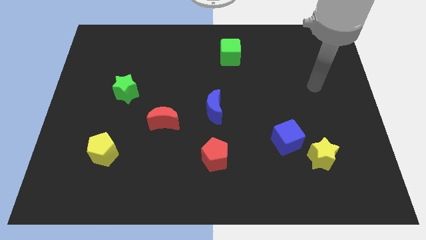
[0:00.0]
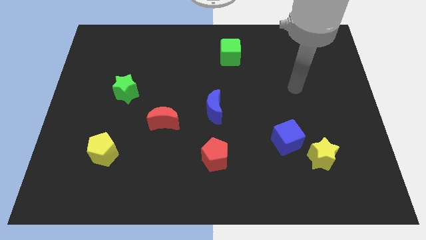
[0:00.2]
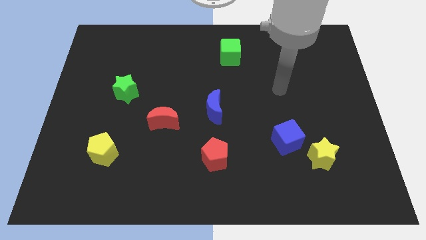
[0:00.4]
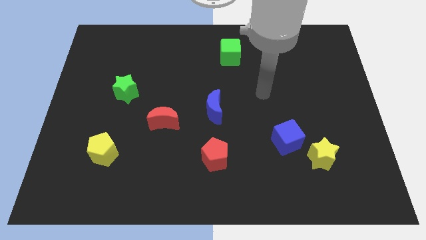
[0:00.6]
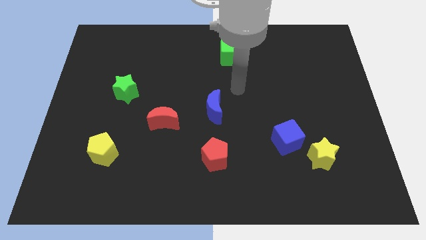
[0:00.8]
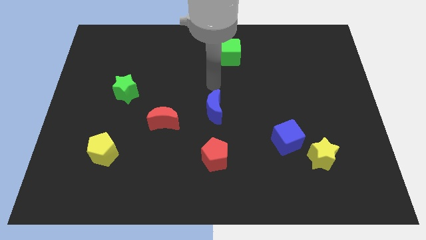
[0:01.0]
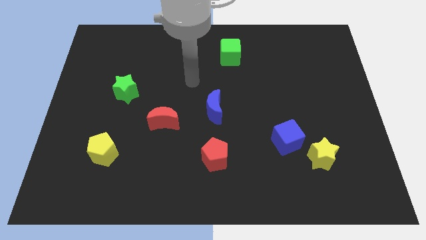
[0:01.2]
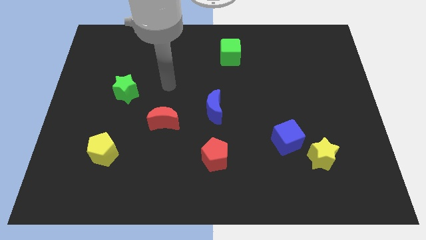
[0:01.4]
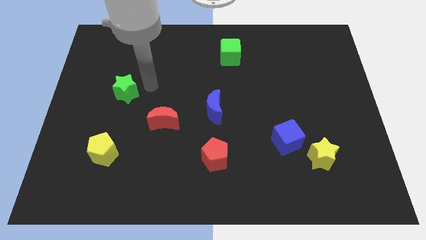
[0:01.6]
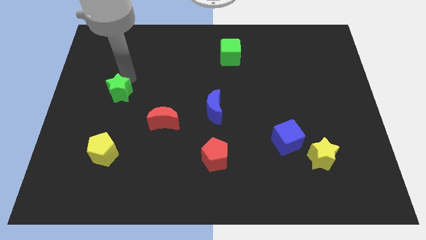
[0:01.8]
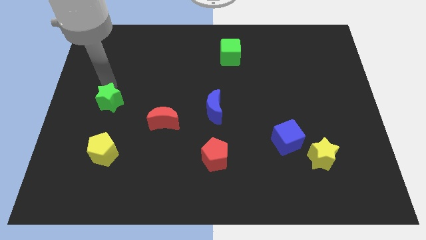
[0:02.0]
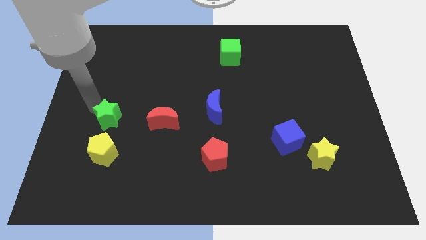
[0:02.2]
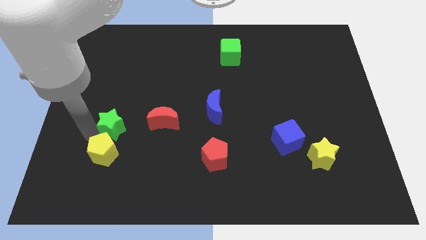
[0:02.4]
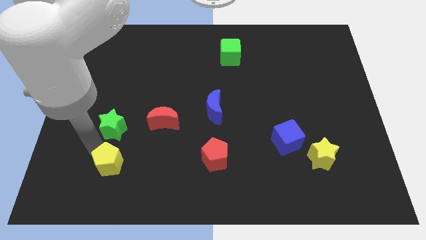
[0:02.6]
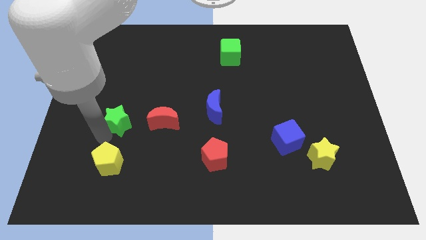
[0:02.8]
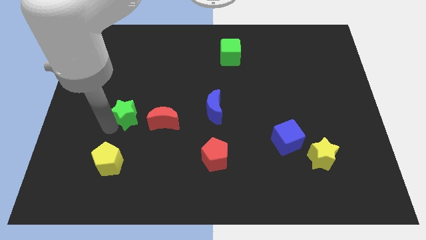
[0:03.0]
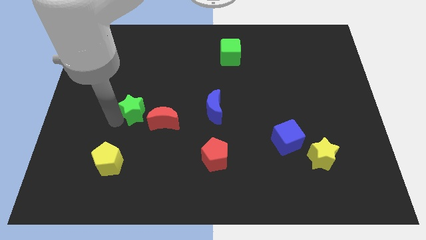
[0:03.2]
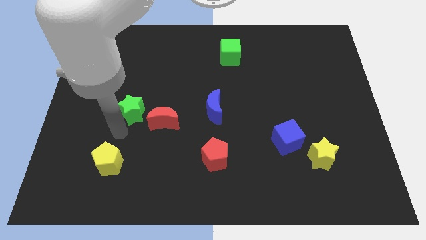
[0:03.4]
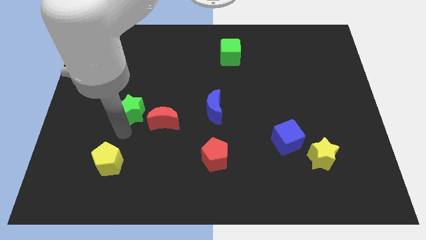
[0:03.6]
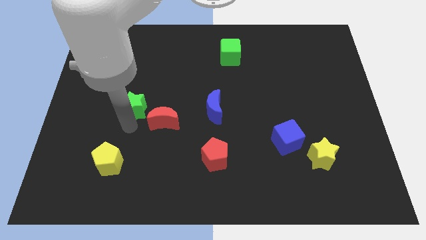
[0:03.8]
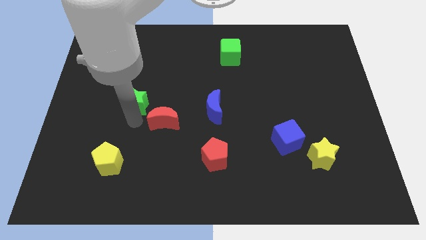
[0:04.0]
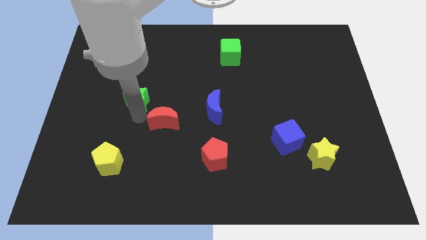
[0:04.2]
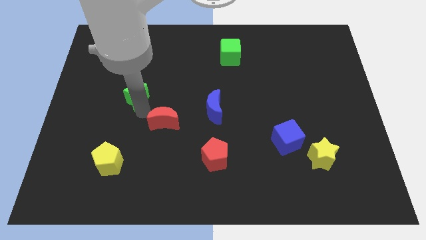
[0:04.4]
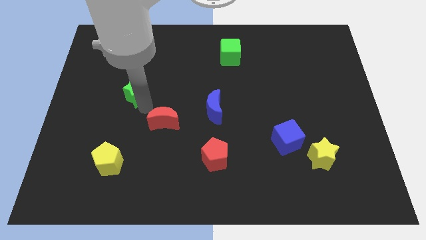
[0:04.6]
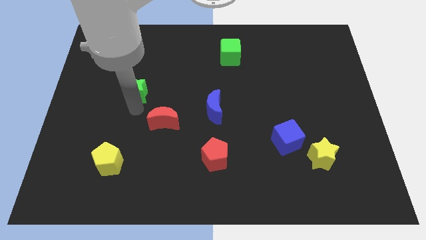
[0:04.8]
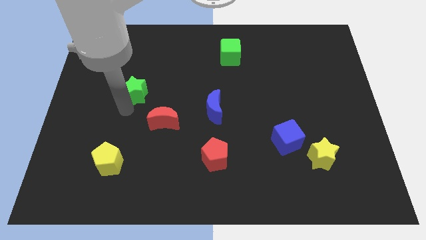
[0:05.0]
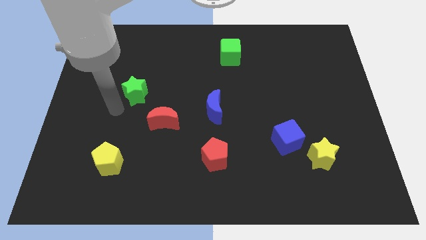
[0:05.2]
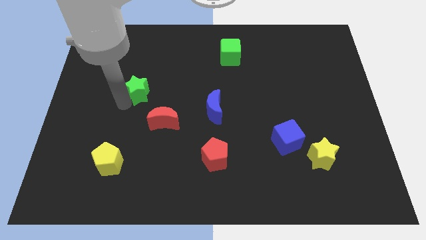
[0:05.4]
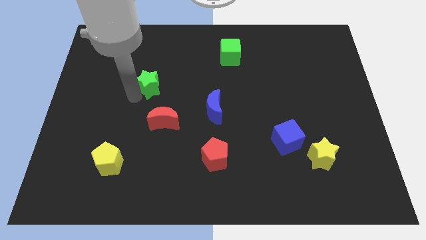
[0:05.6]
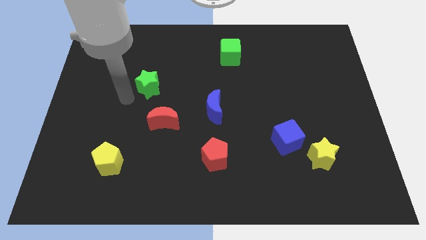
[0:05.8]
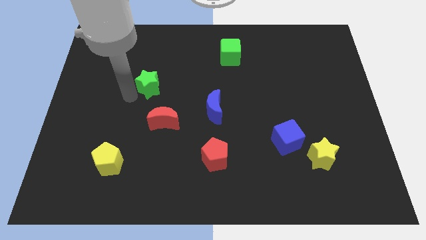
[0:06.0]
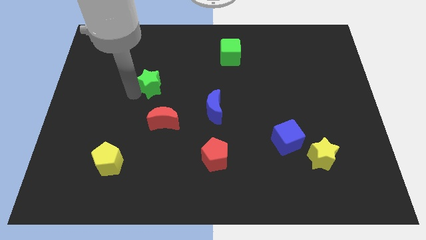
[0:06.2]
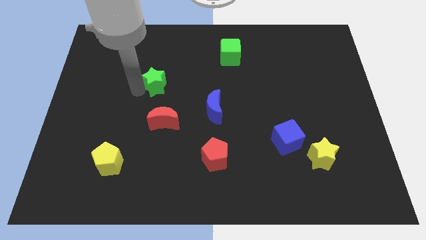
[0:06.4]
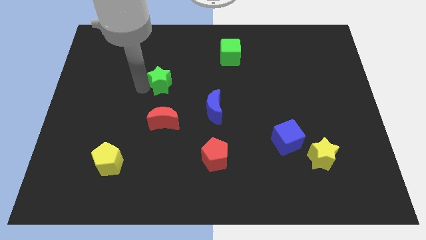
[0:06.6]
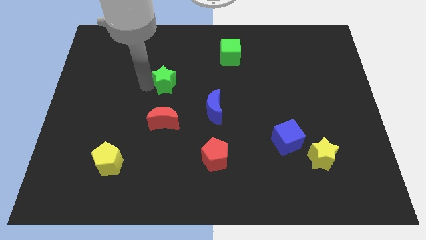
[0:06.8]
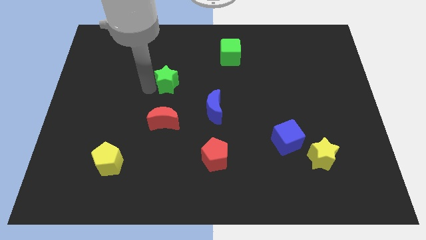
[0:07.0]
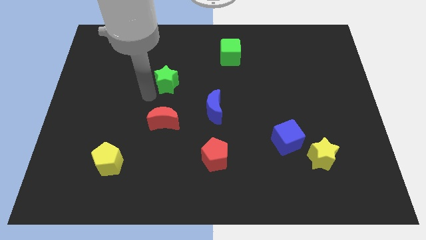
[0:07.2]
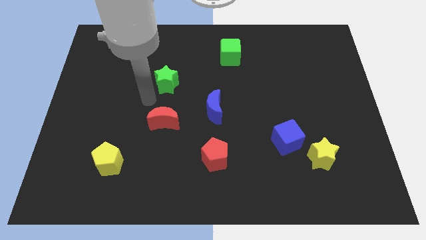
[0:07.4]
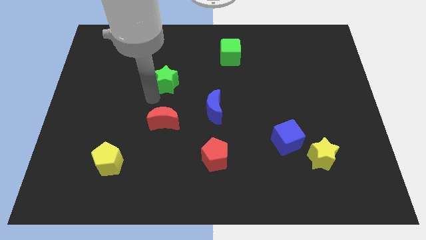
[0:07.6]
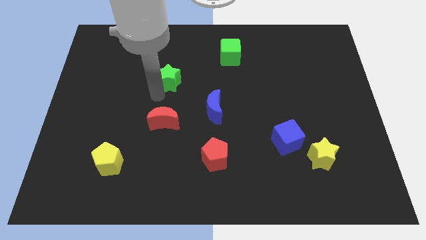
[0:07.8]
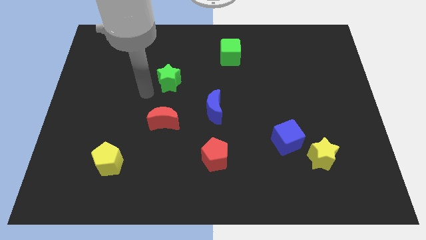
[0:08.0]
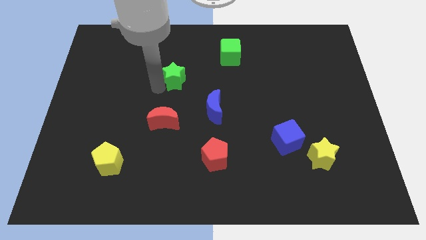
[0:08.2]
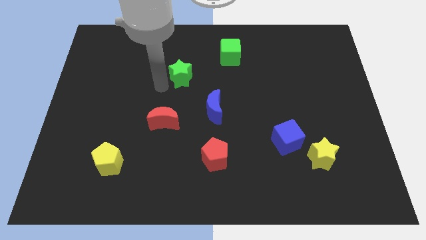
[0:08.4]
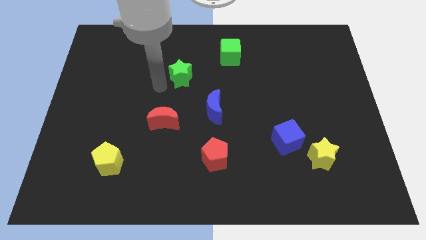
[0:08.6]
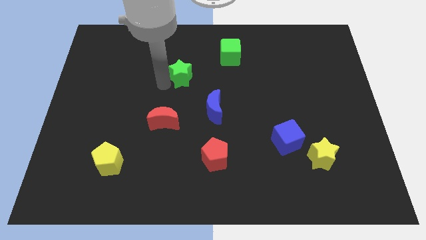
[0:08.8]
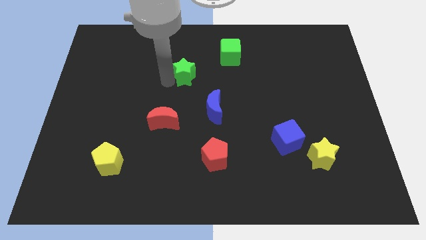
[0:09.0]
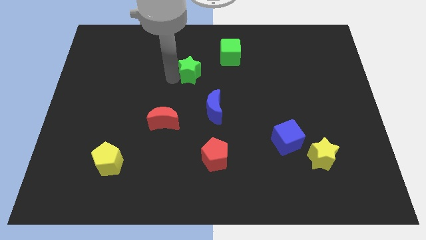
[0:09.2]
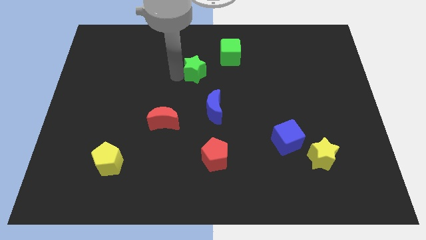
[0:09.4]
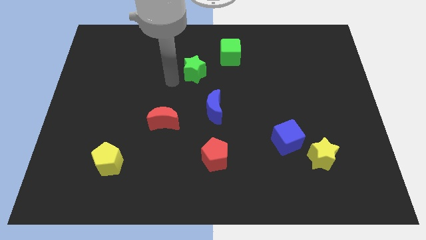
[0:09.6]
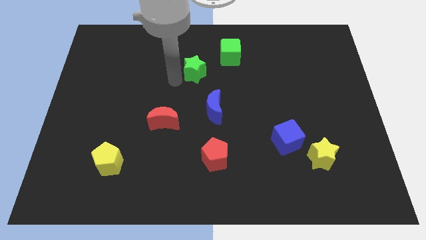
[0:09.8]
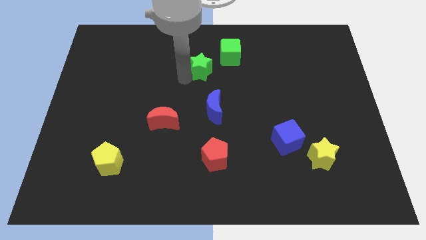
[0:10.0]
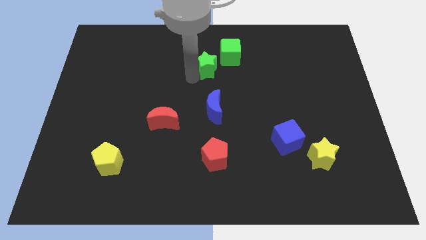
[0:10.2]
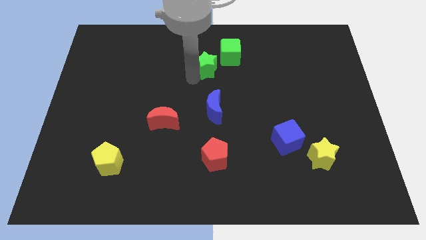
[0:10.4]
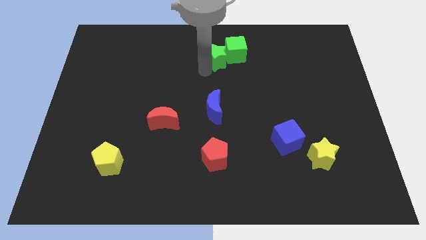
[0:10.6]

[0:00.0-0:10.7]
slide the green star next to the green cube

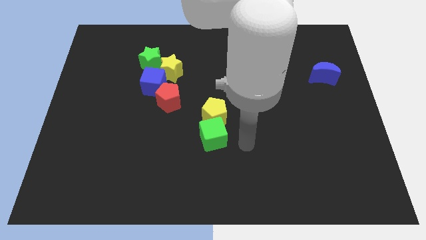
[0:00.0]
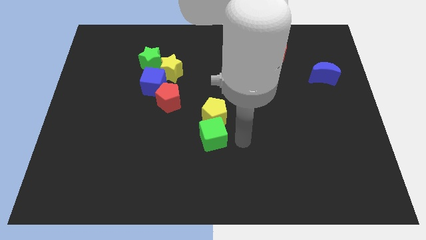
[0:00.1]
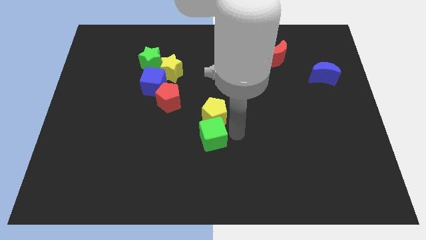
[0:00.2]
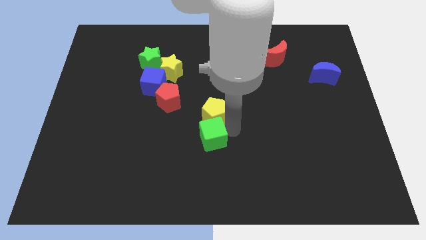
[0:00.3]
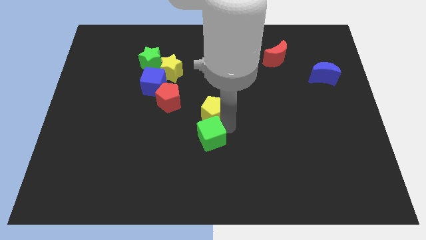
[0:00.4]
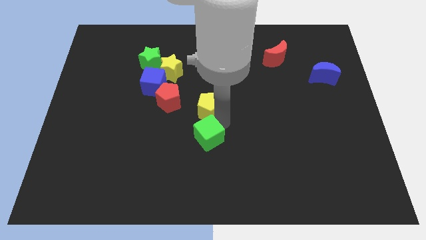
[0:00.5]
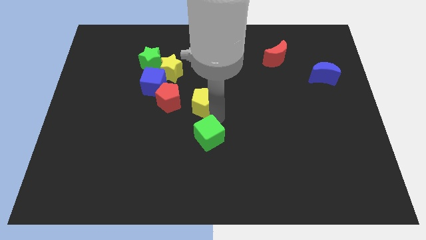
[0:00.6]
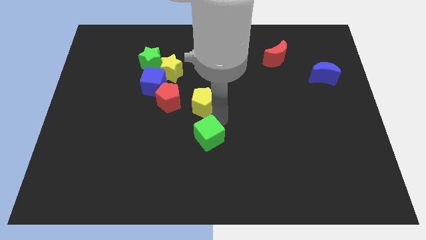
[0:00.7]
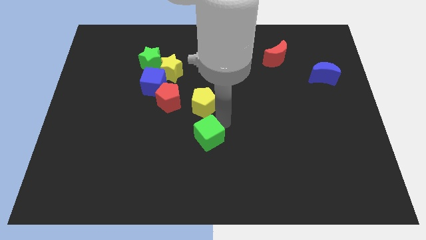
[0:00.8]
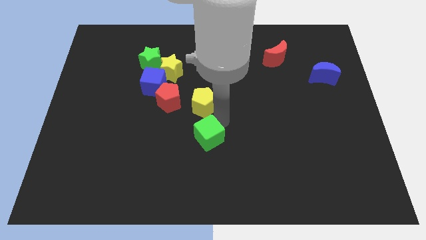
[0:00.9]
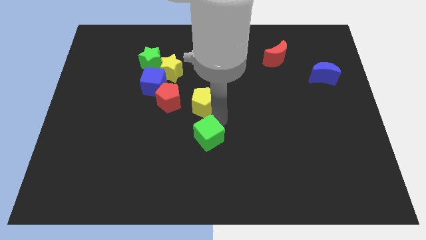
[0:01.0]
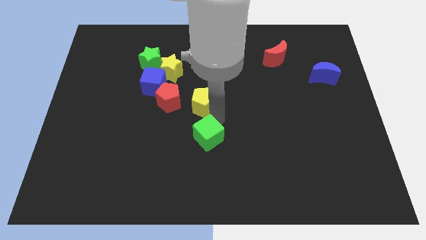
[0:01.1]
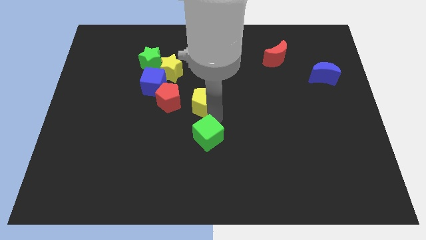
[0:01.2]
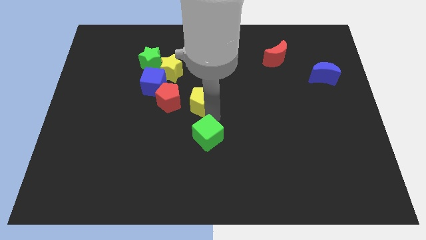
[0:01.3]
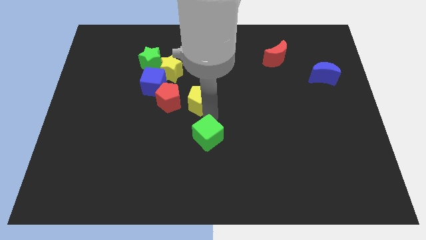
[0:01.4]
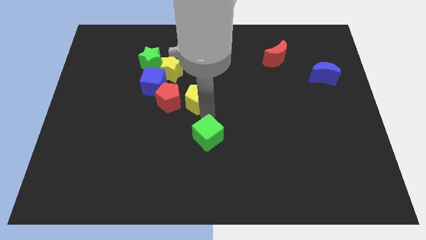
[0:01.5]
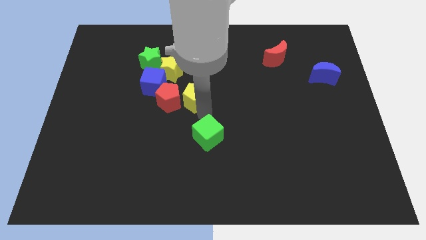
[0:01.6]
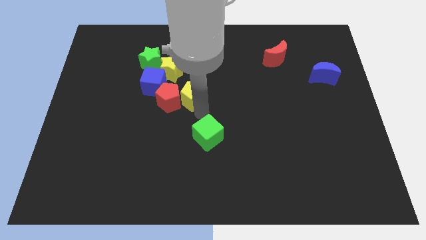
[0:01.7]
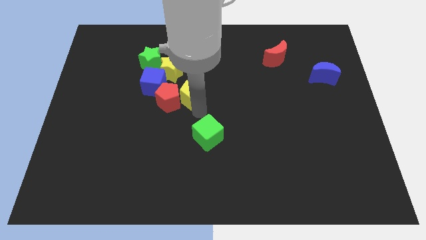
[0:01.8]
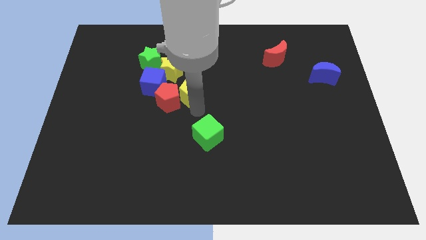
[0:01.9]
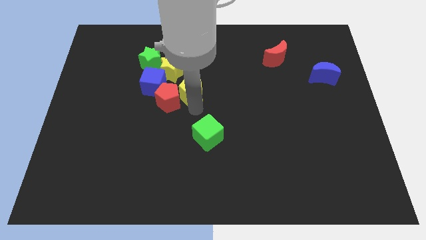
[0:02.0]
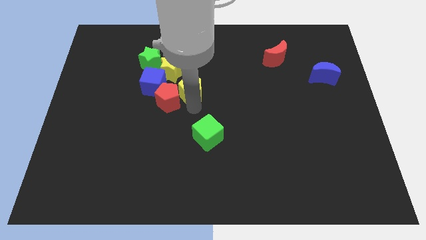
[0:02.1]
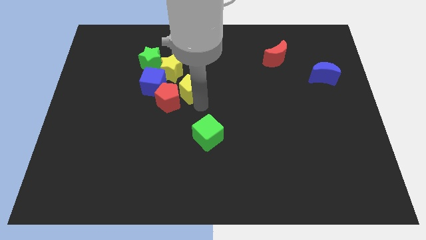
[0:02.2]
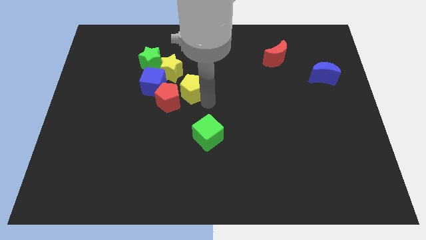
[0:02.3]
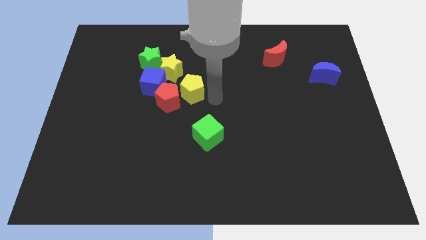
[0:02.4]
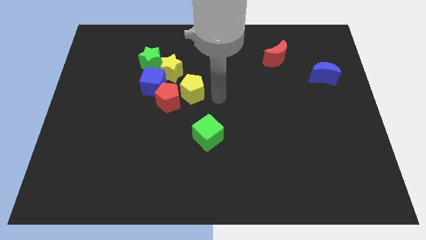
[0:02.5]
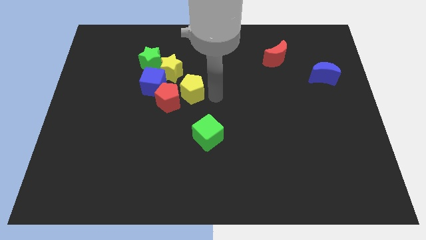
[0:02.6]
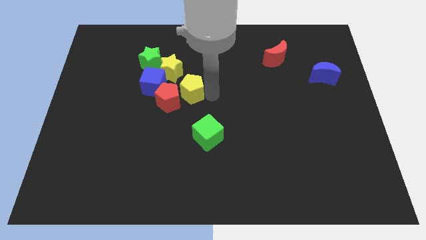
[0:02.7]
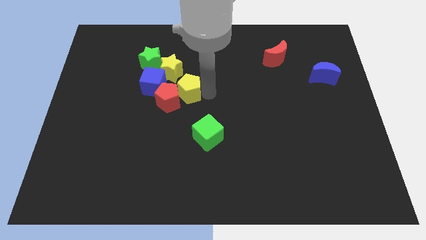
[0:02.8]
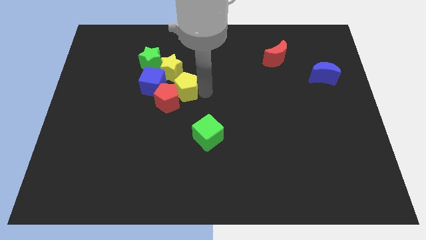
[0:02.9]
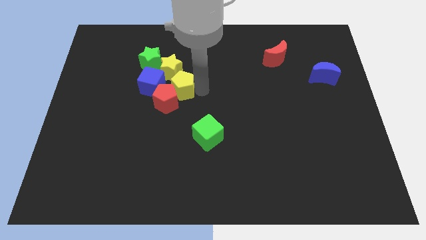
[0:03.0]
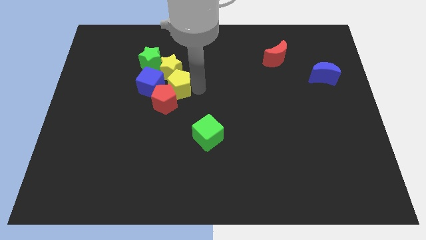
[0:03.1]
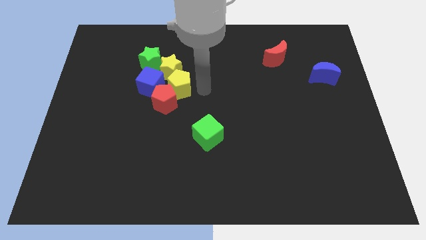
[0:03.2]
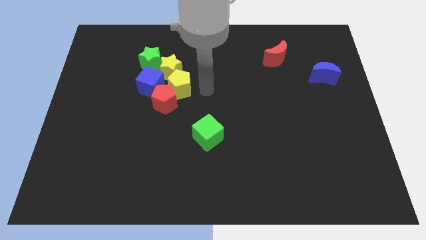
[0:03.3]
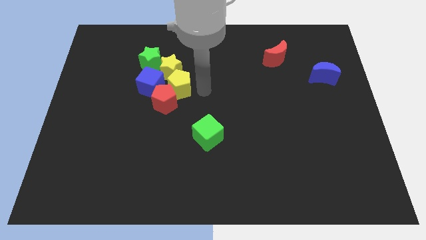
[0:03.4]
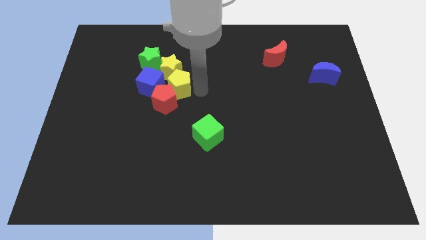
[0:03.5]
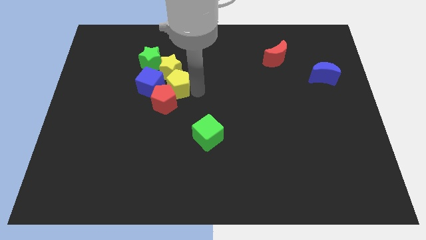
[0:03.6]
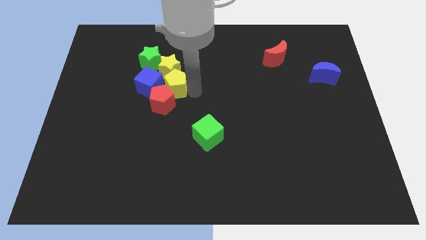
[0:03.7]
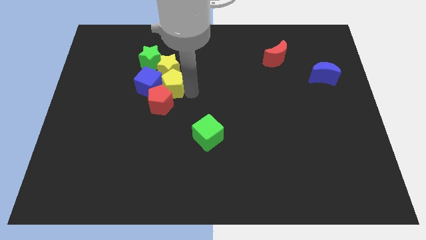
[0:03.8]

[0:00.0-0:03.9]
push the yellow pentagon next to the blue cube
